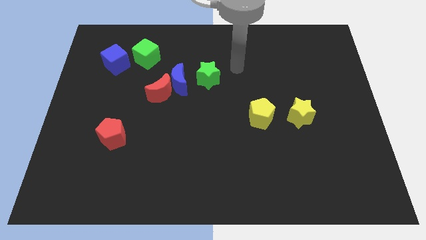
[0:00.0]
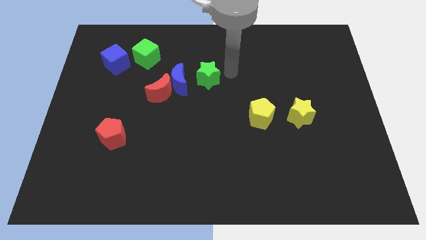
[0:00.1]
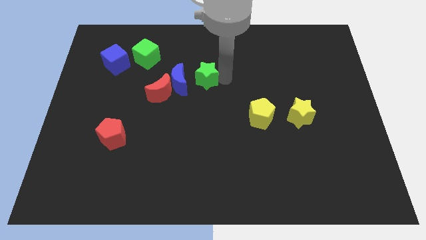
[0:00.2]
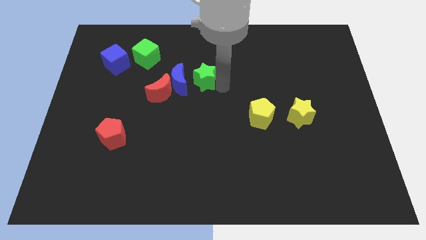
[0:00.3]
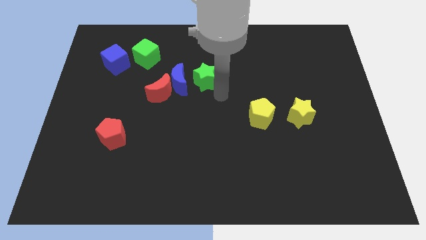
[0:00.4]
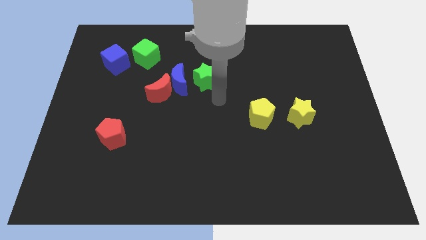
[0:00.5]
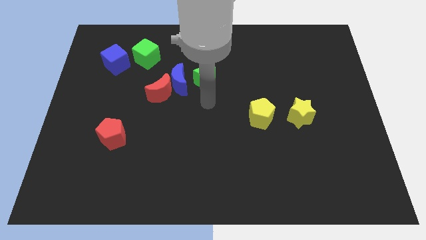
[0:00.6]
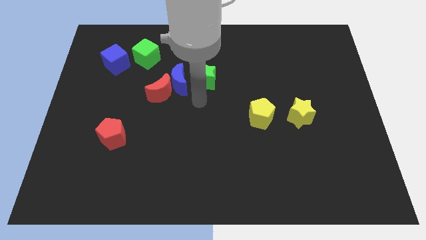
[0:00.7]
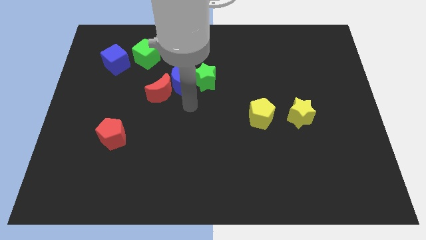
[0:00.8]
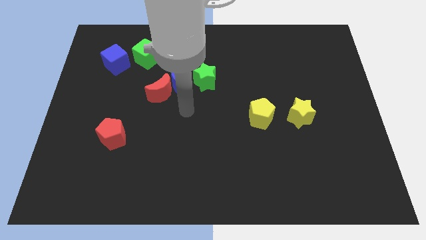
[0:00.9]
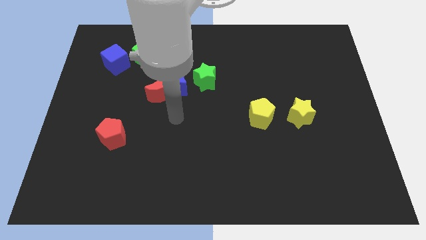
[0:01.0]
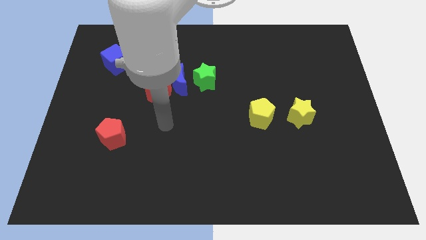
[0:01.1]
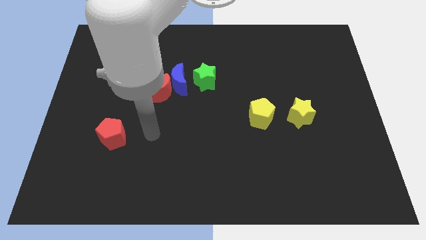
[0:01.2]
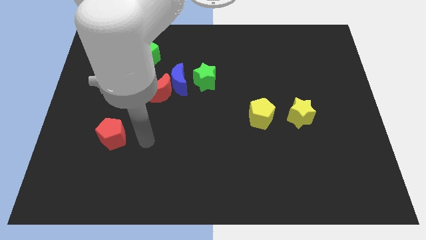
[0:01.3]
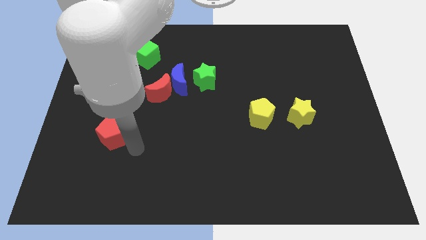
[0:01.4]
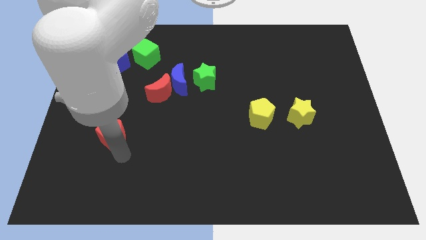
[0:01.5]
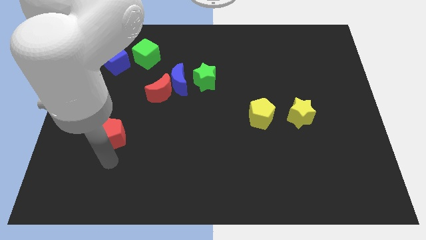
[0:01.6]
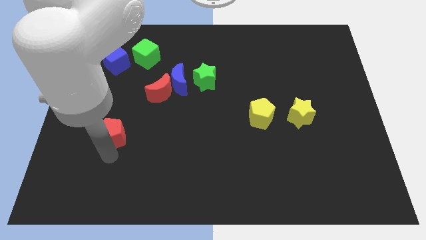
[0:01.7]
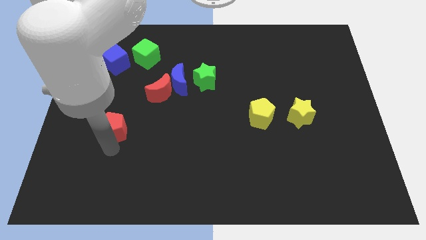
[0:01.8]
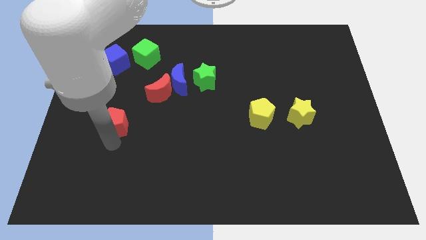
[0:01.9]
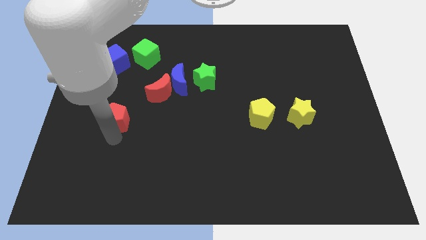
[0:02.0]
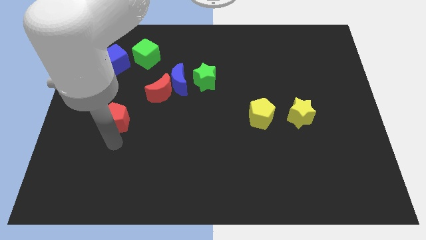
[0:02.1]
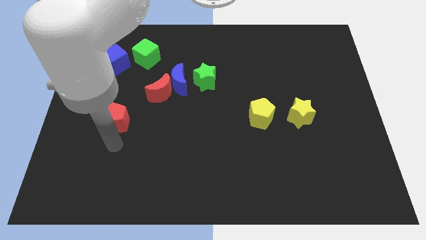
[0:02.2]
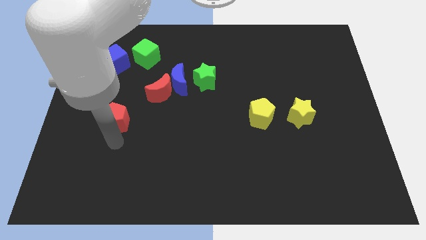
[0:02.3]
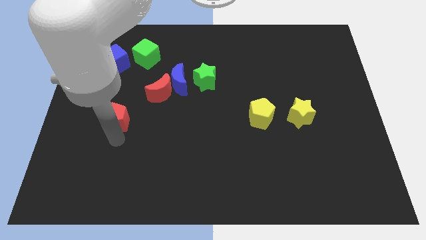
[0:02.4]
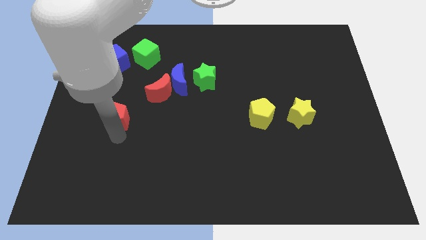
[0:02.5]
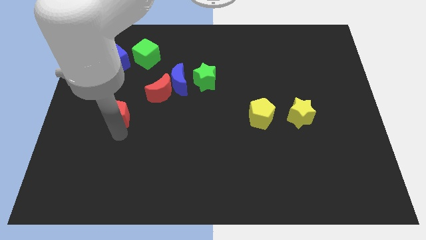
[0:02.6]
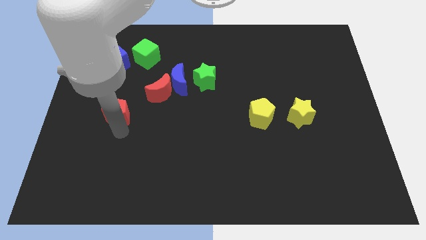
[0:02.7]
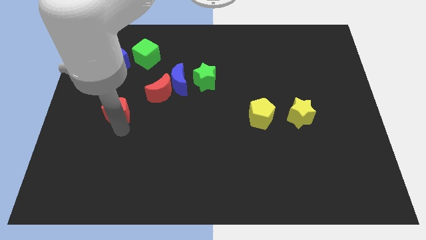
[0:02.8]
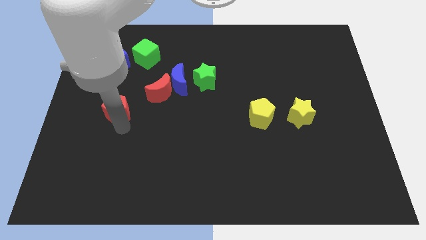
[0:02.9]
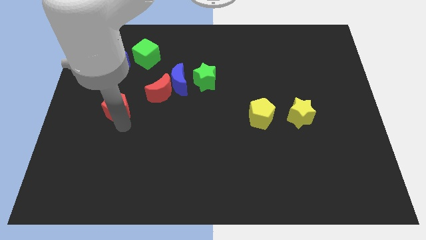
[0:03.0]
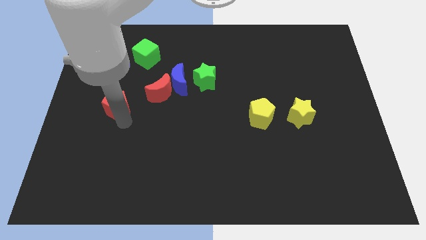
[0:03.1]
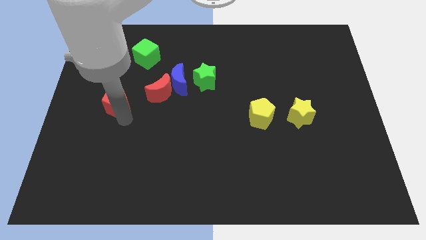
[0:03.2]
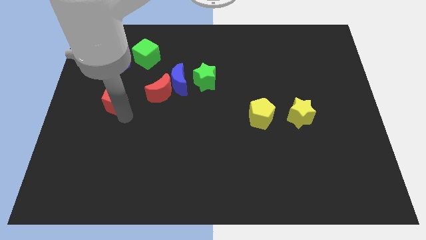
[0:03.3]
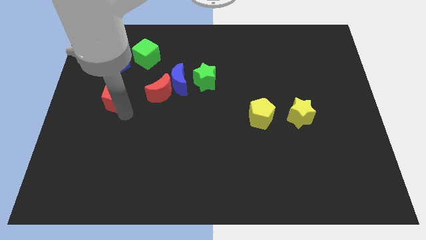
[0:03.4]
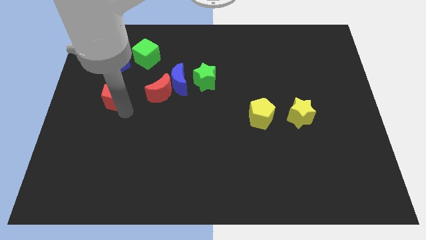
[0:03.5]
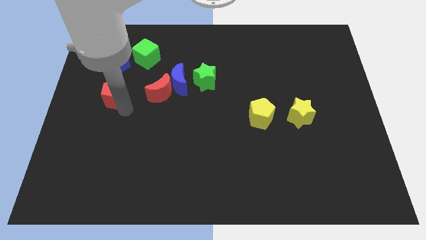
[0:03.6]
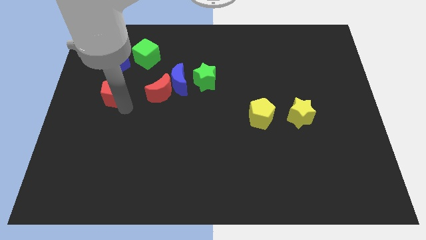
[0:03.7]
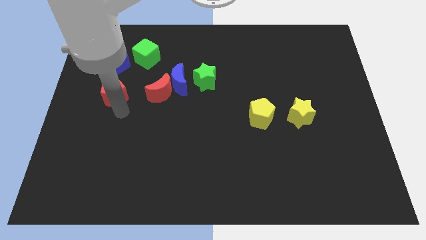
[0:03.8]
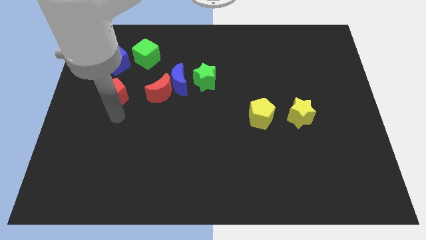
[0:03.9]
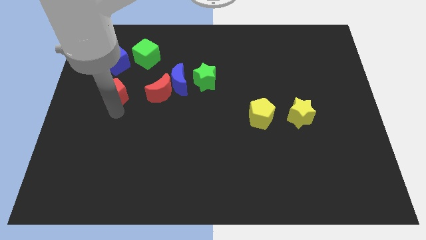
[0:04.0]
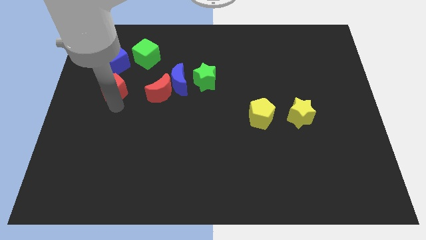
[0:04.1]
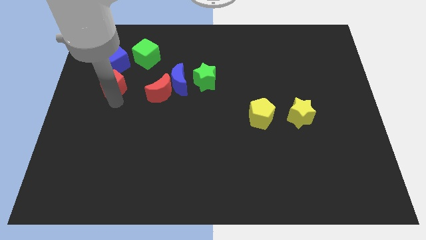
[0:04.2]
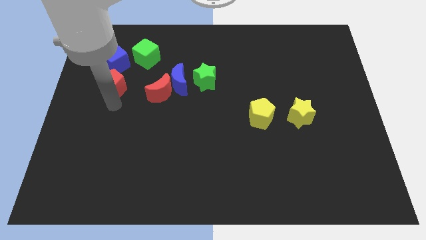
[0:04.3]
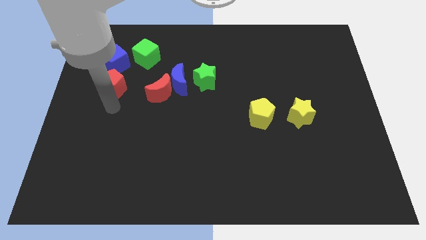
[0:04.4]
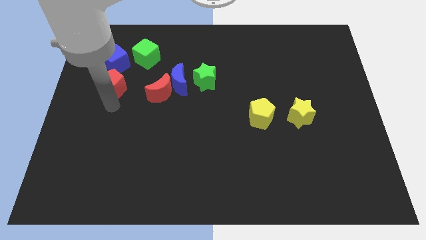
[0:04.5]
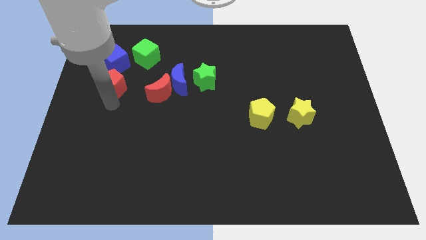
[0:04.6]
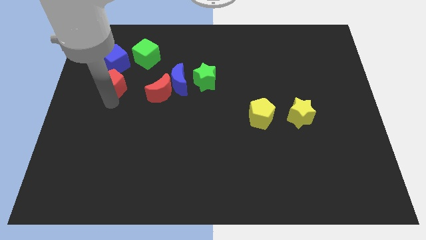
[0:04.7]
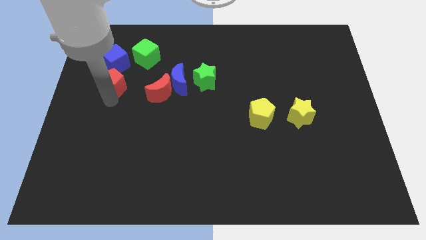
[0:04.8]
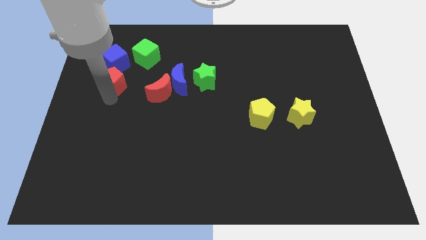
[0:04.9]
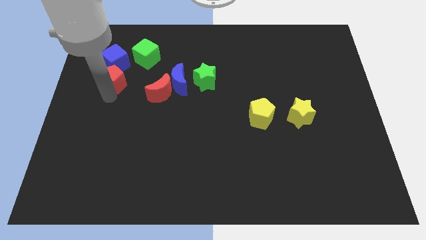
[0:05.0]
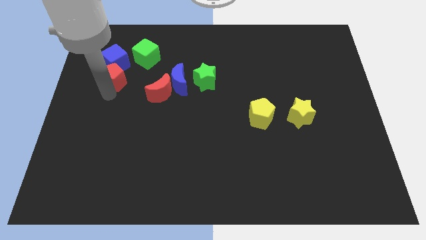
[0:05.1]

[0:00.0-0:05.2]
push the red pentagon next to the blue cube

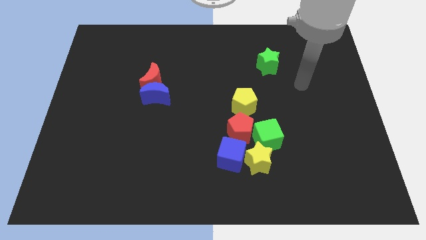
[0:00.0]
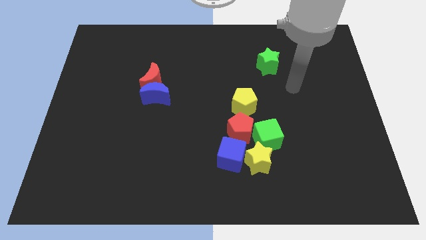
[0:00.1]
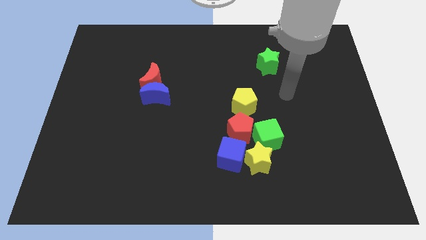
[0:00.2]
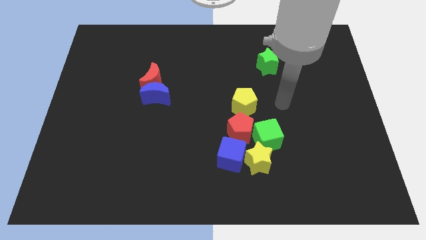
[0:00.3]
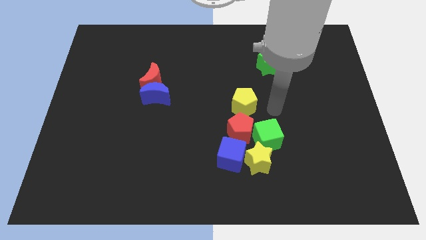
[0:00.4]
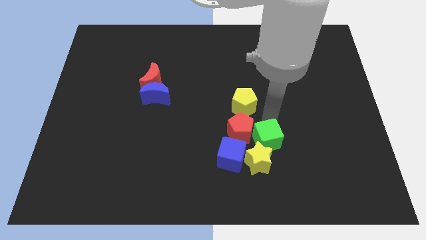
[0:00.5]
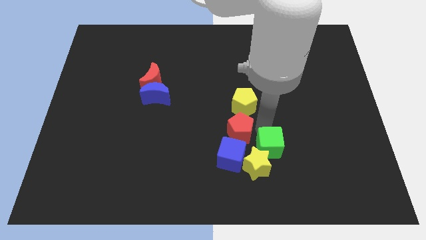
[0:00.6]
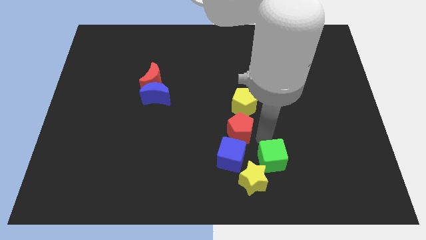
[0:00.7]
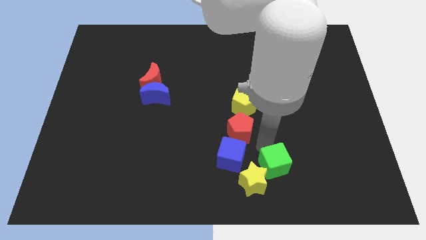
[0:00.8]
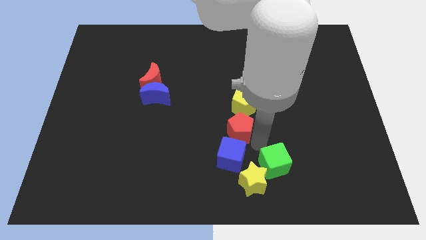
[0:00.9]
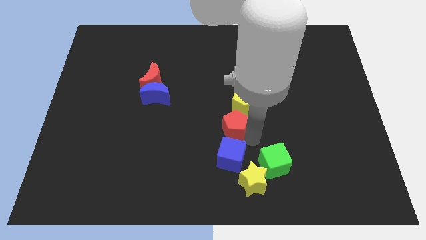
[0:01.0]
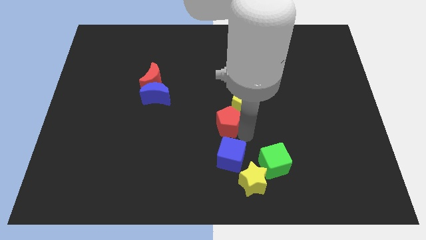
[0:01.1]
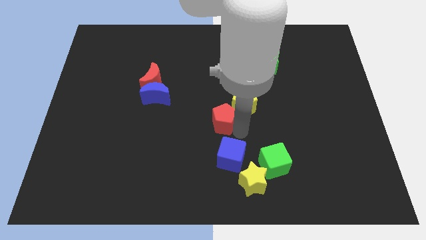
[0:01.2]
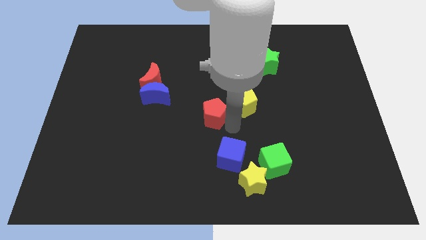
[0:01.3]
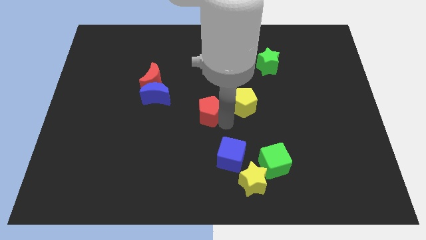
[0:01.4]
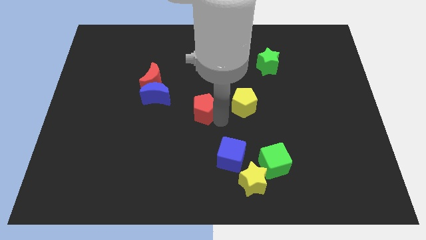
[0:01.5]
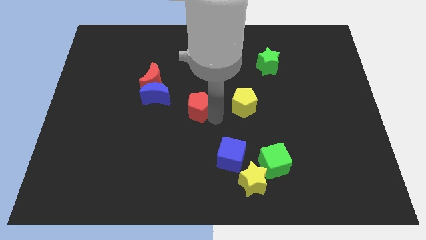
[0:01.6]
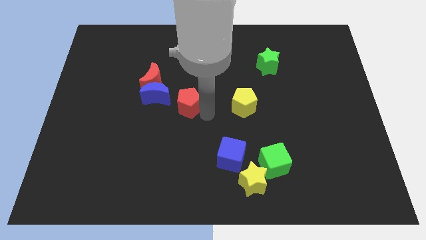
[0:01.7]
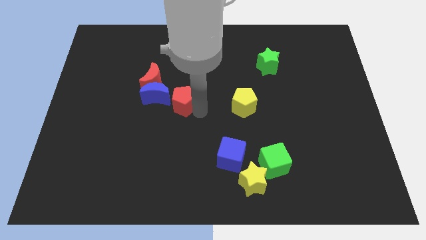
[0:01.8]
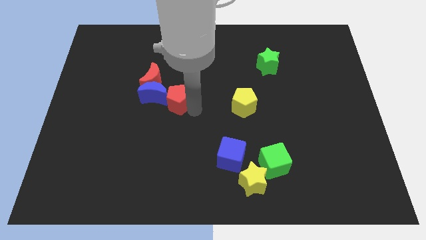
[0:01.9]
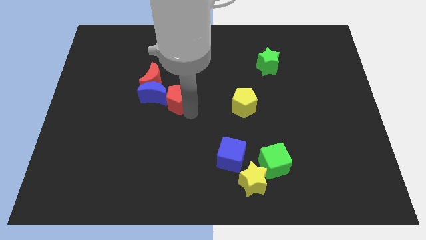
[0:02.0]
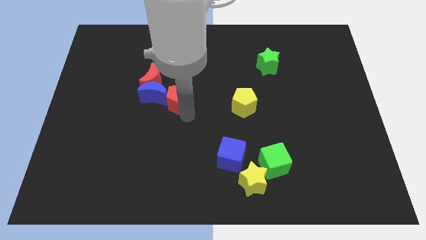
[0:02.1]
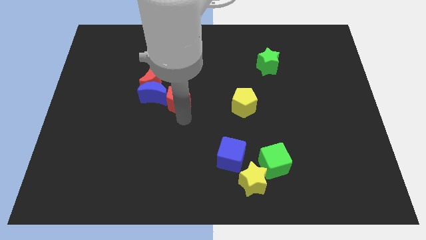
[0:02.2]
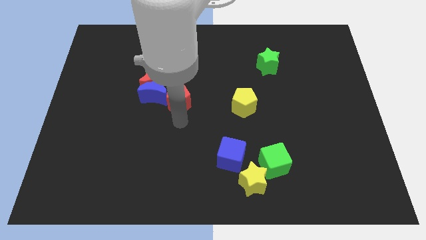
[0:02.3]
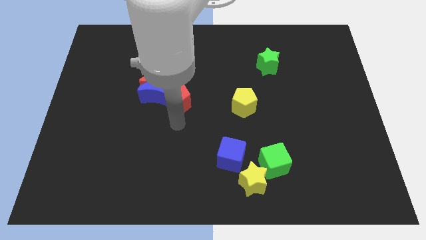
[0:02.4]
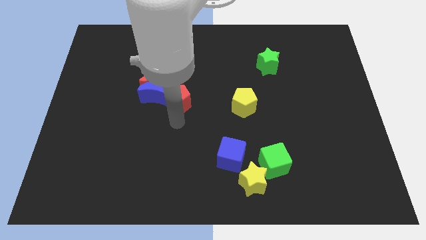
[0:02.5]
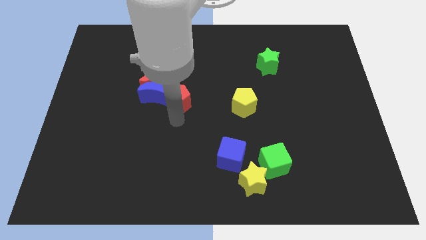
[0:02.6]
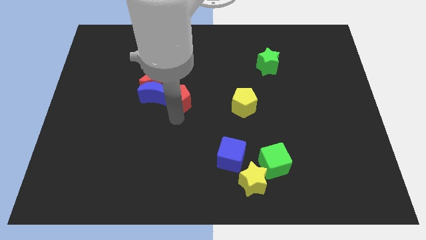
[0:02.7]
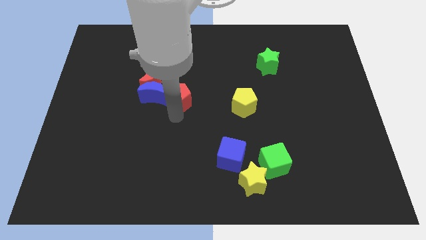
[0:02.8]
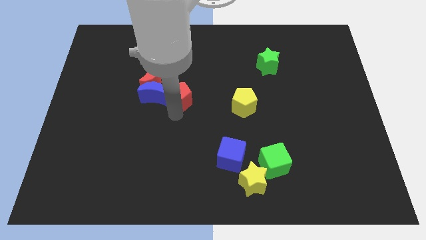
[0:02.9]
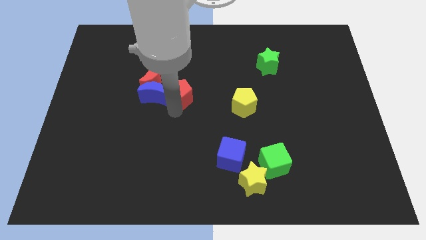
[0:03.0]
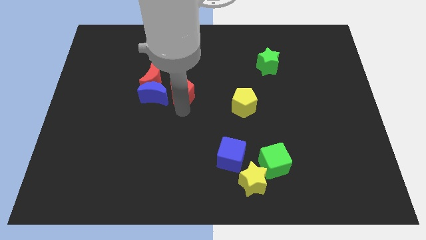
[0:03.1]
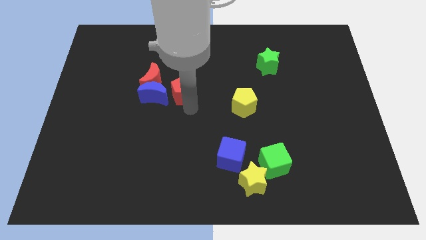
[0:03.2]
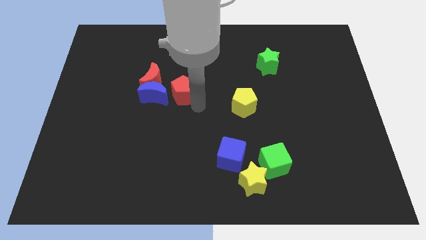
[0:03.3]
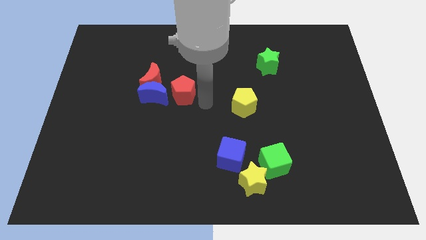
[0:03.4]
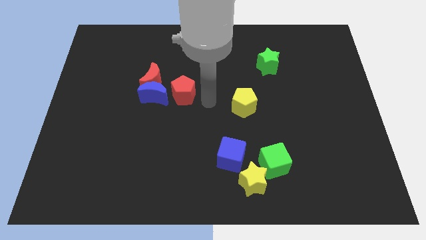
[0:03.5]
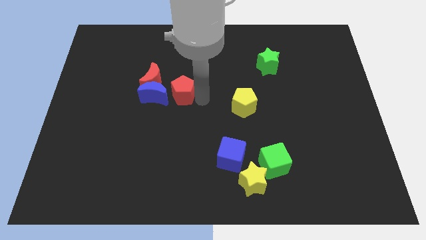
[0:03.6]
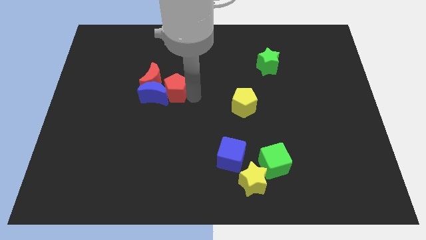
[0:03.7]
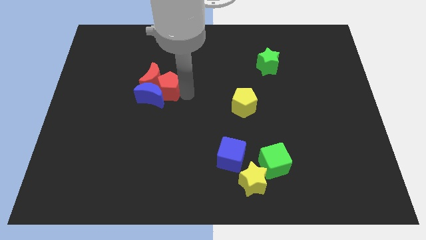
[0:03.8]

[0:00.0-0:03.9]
slide the red pentagon next to the red moon
